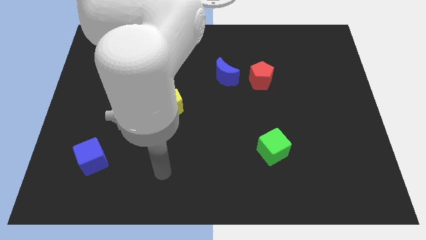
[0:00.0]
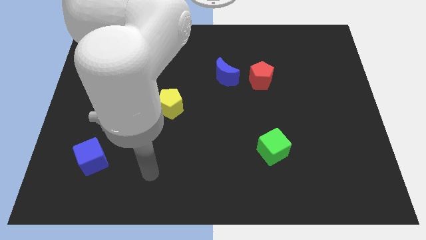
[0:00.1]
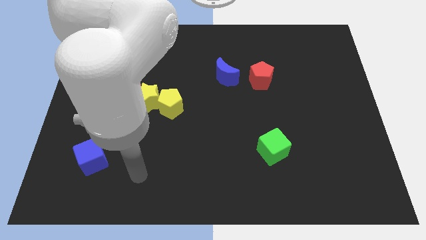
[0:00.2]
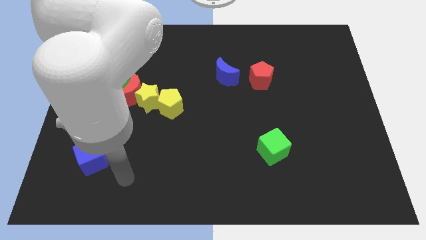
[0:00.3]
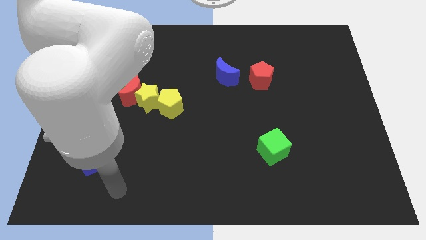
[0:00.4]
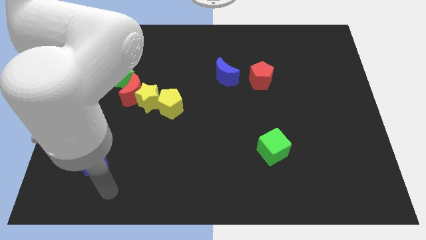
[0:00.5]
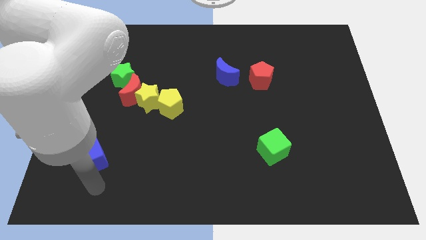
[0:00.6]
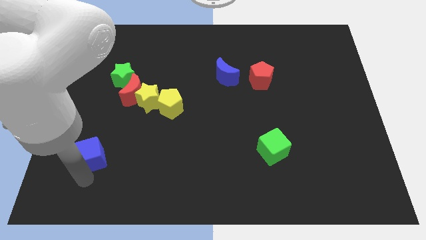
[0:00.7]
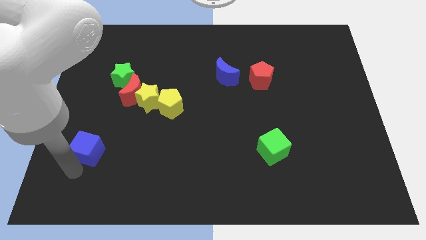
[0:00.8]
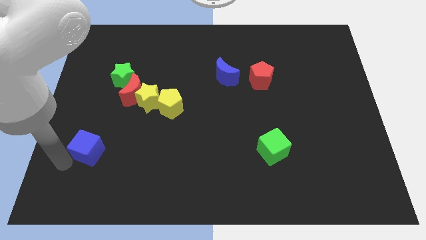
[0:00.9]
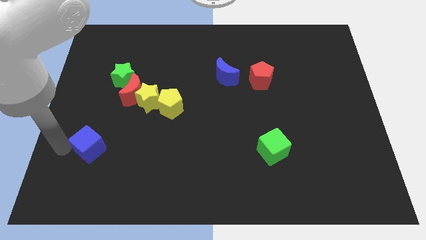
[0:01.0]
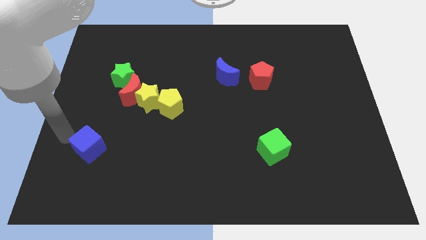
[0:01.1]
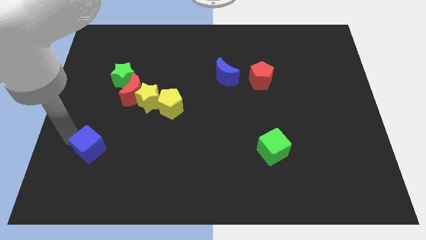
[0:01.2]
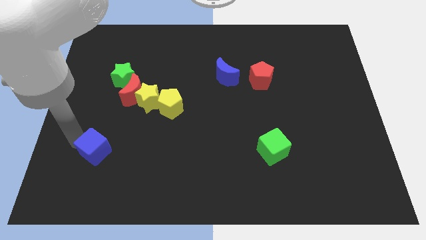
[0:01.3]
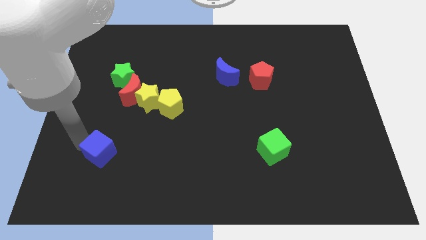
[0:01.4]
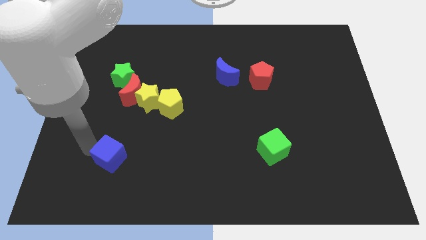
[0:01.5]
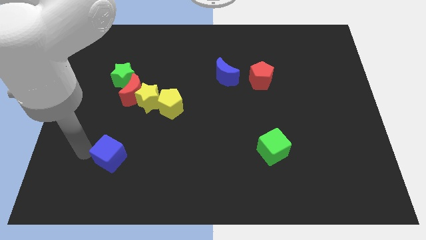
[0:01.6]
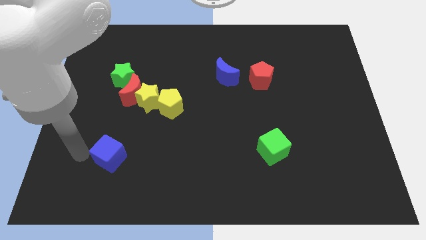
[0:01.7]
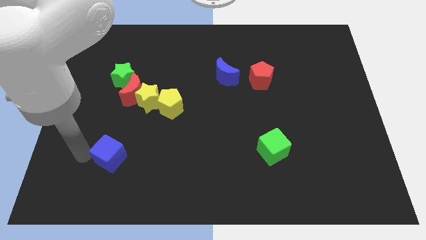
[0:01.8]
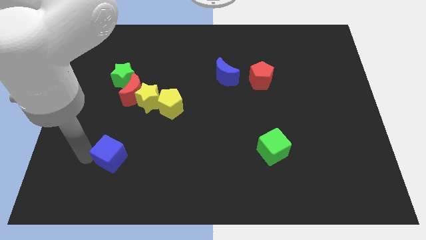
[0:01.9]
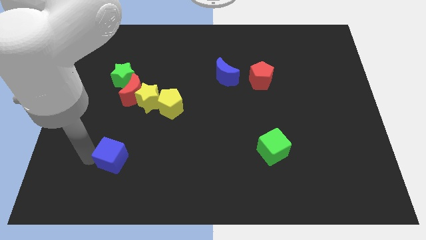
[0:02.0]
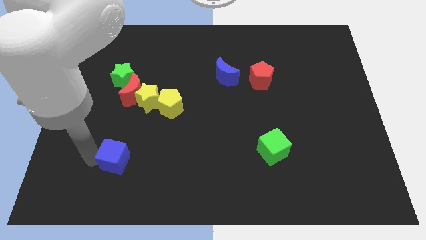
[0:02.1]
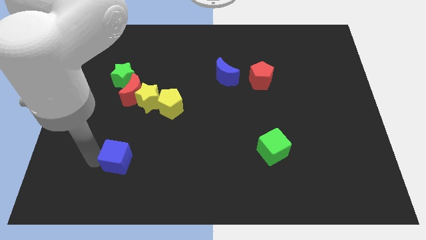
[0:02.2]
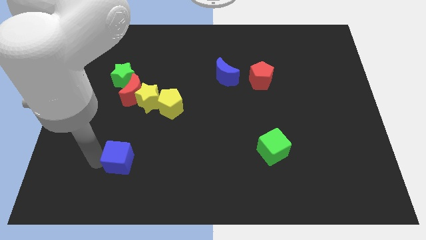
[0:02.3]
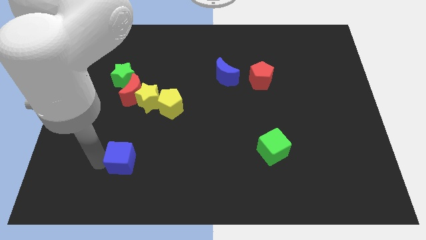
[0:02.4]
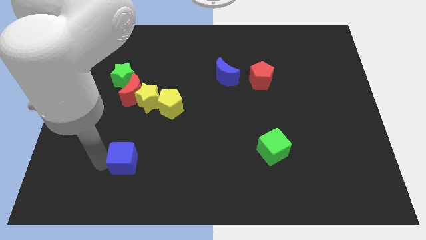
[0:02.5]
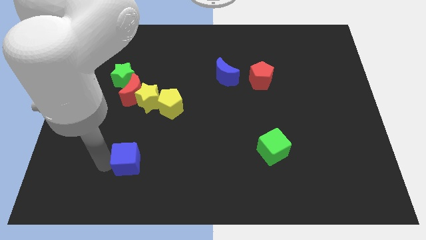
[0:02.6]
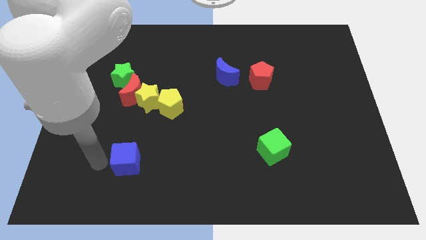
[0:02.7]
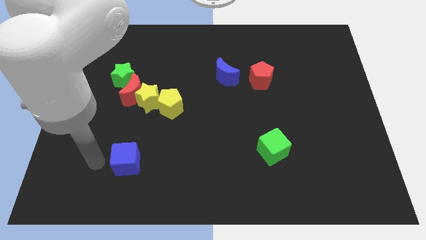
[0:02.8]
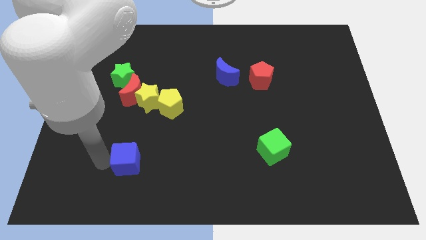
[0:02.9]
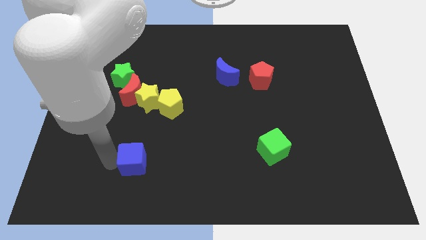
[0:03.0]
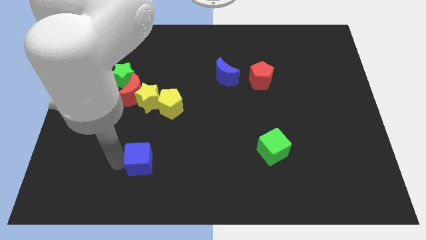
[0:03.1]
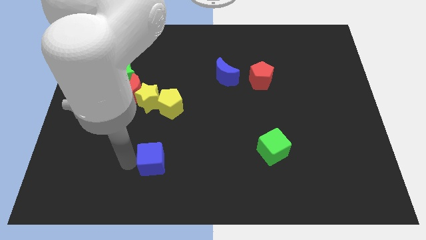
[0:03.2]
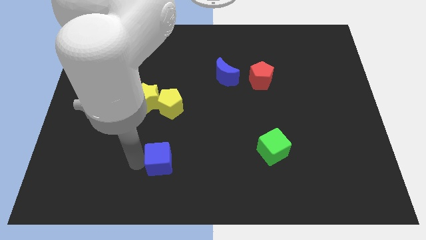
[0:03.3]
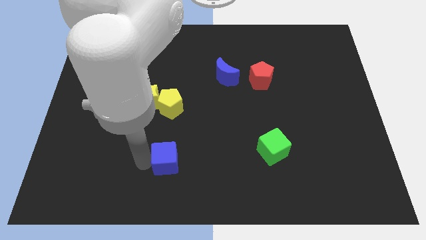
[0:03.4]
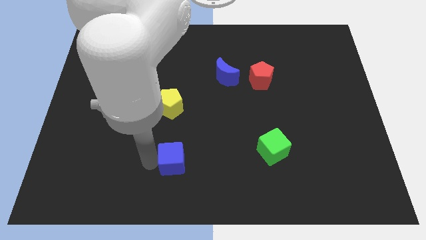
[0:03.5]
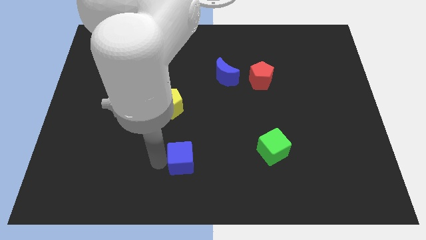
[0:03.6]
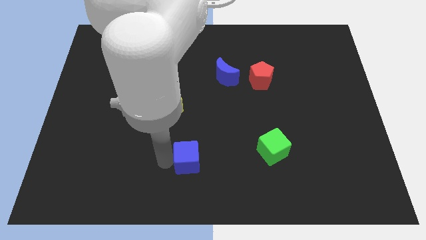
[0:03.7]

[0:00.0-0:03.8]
push the blue cube right

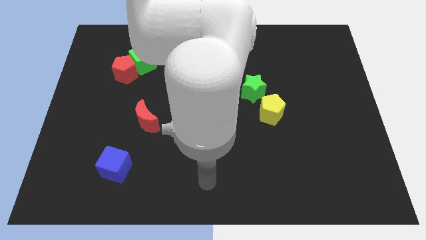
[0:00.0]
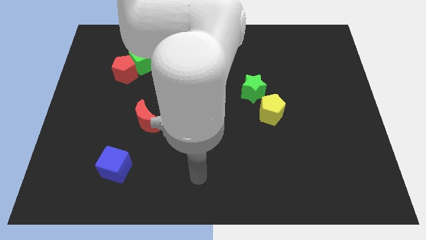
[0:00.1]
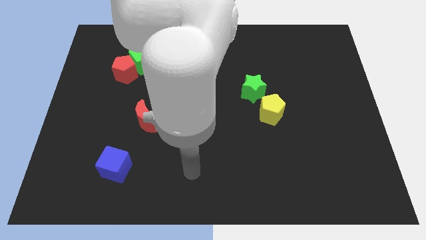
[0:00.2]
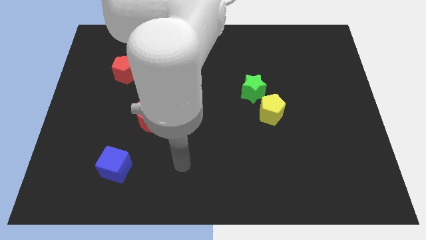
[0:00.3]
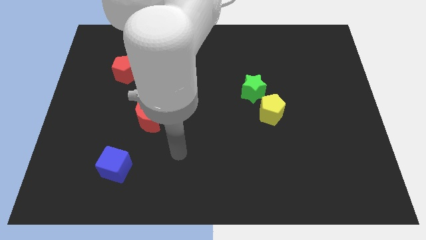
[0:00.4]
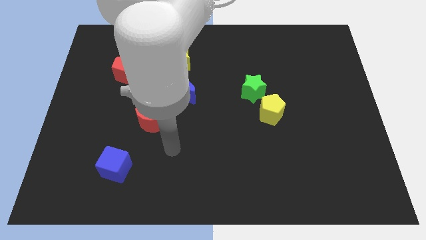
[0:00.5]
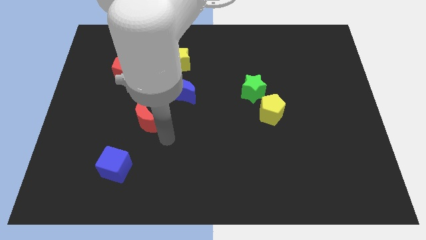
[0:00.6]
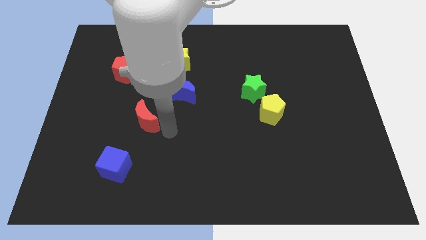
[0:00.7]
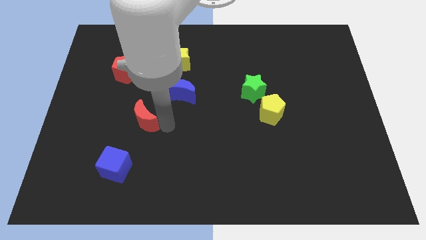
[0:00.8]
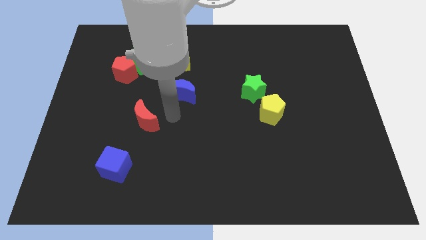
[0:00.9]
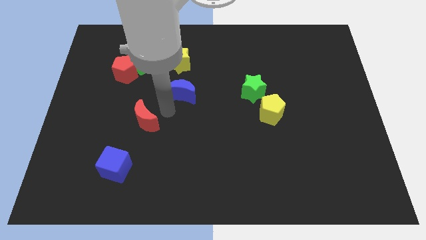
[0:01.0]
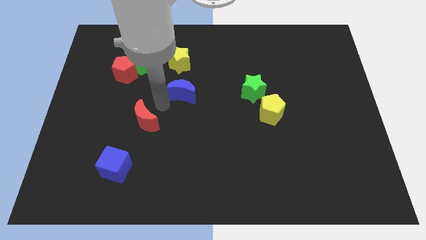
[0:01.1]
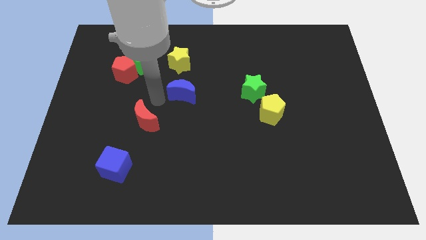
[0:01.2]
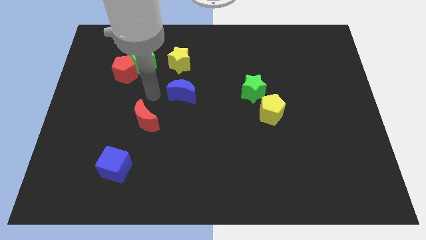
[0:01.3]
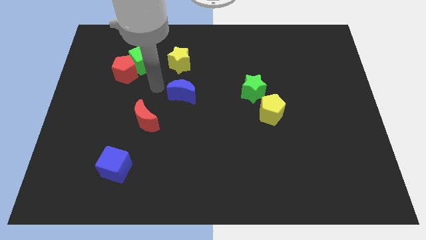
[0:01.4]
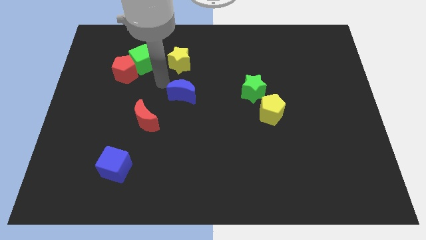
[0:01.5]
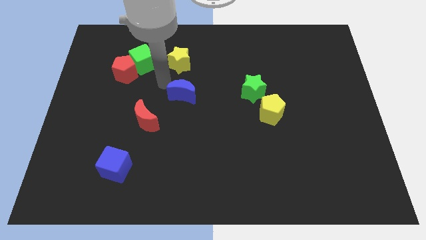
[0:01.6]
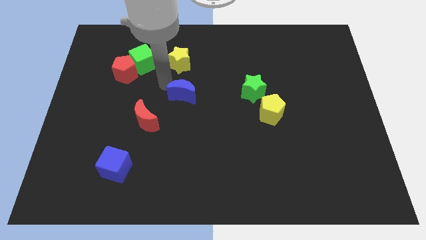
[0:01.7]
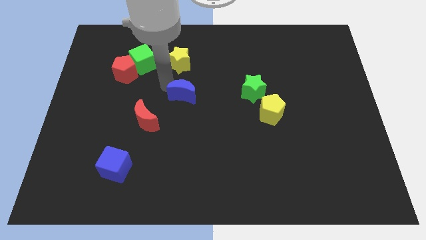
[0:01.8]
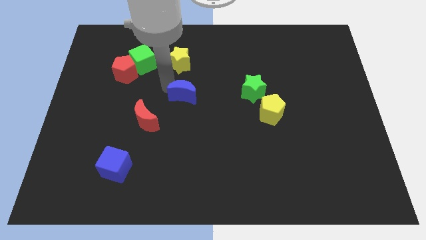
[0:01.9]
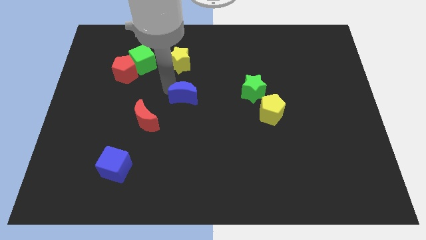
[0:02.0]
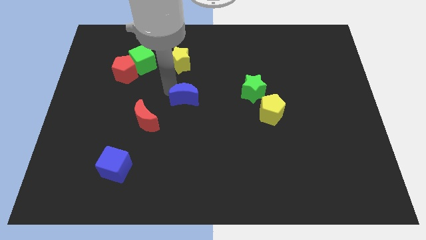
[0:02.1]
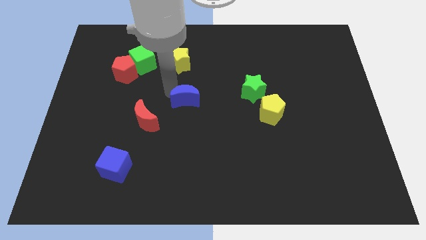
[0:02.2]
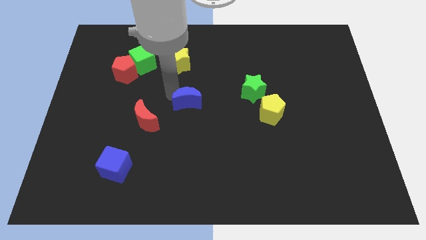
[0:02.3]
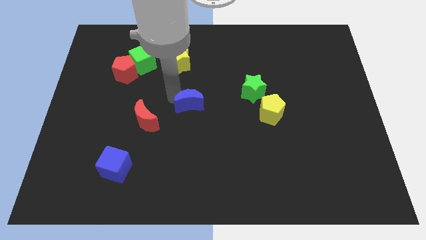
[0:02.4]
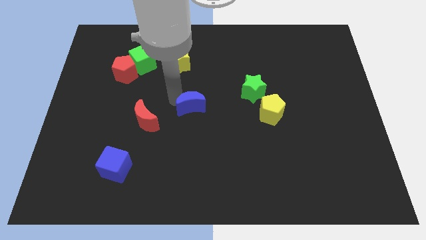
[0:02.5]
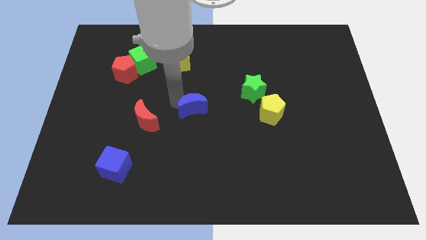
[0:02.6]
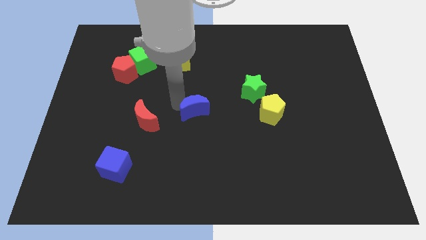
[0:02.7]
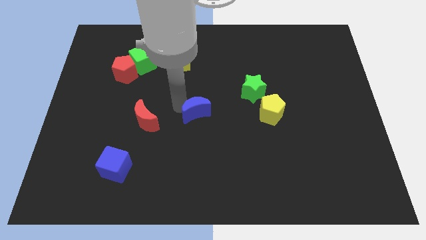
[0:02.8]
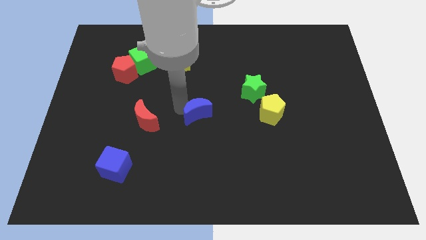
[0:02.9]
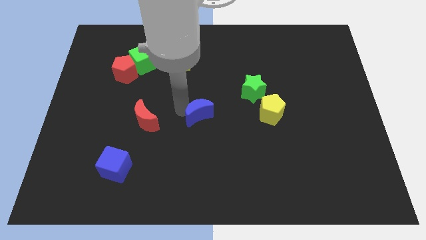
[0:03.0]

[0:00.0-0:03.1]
move the blue moon downwards and then to the right slightly

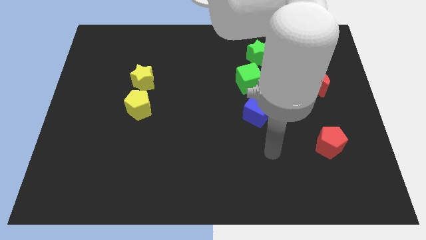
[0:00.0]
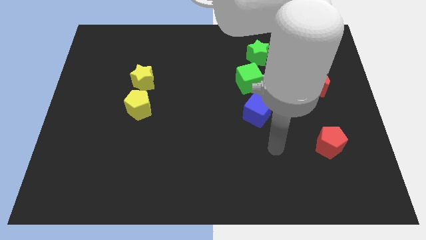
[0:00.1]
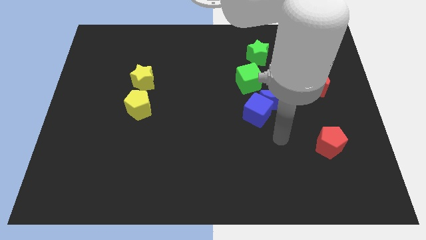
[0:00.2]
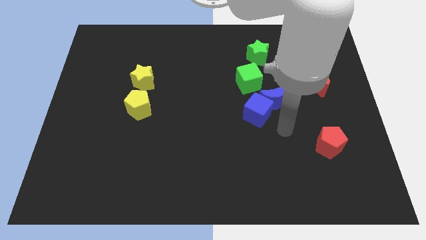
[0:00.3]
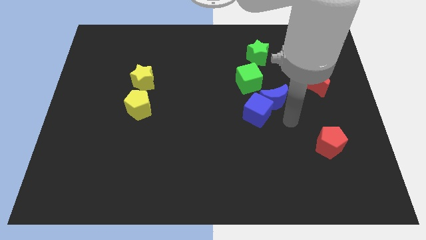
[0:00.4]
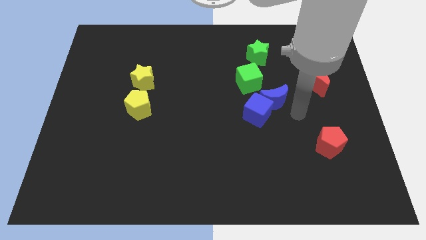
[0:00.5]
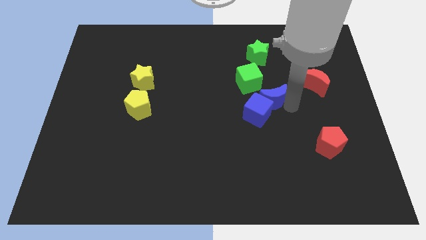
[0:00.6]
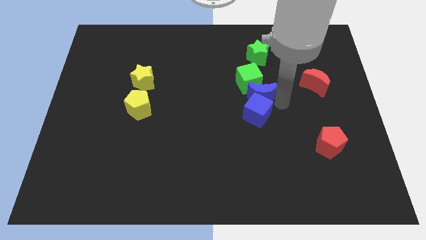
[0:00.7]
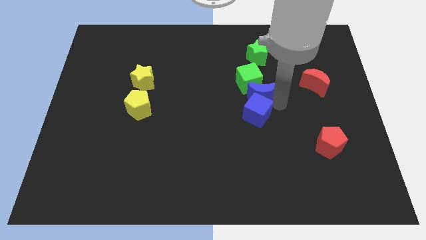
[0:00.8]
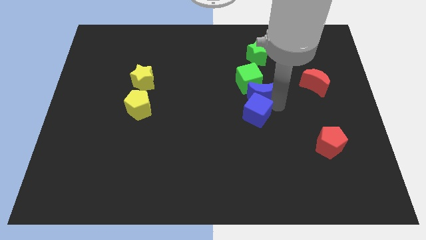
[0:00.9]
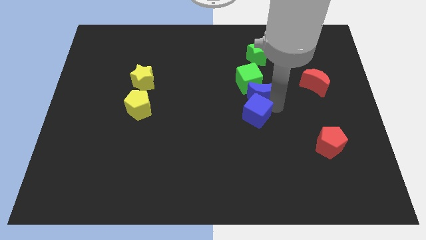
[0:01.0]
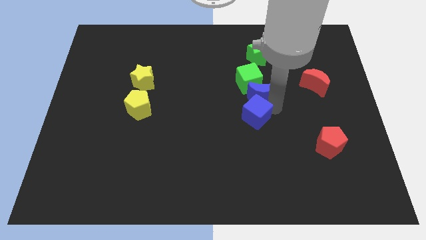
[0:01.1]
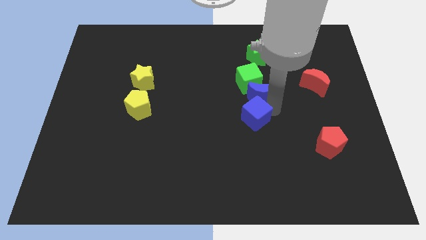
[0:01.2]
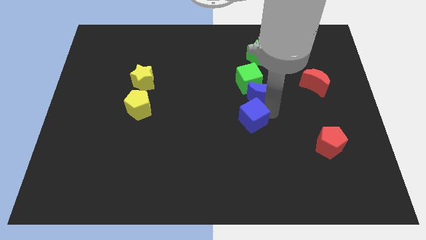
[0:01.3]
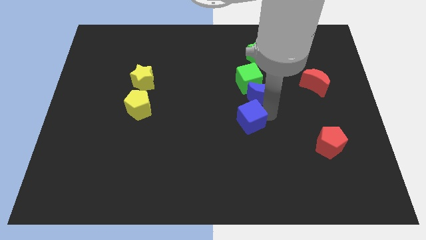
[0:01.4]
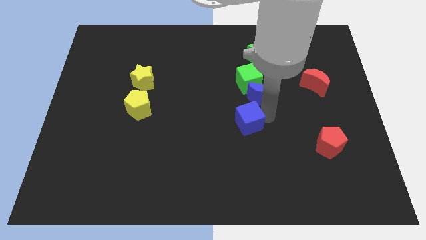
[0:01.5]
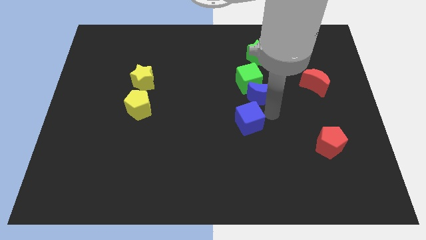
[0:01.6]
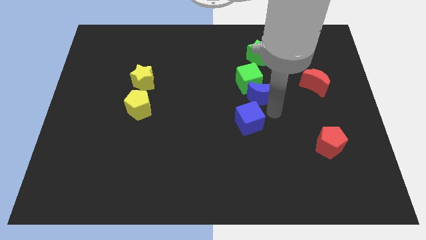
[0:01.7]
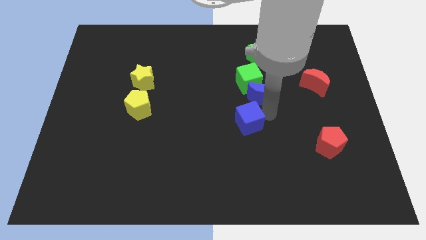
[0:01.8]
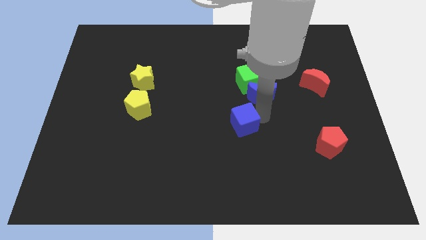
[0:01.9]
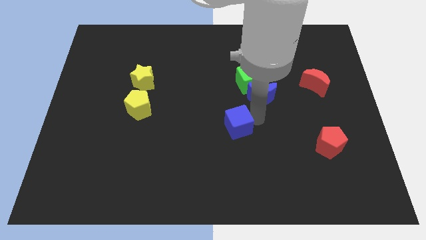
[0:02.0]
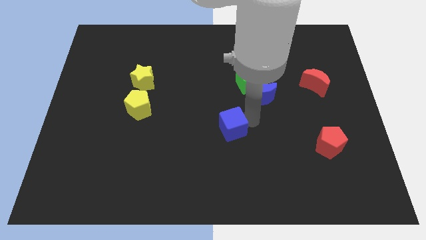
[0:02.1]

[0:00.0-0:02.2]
slightly push the blue cube downwards and then to the left
